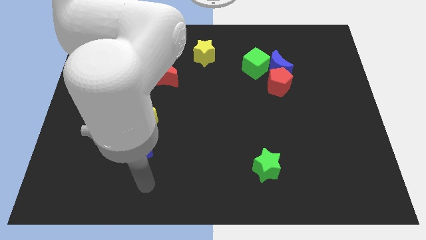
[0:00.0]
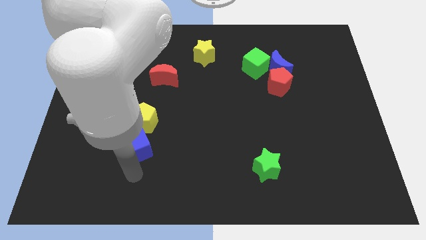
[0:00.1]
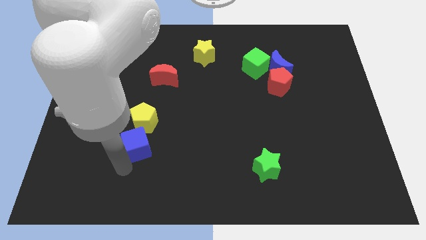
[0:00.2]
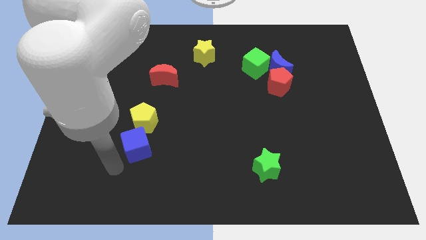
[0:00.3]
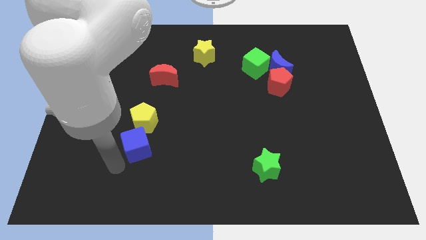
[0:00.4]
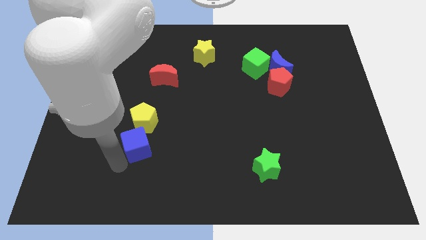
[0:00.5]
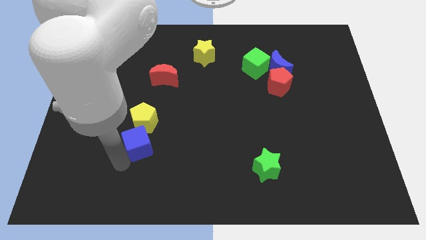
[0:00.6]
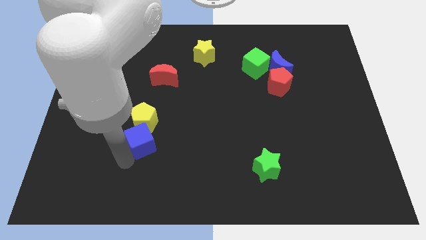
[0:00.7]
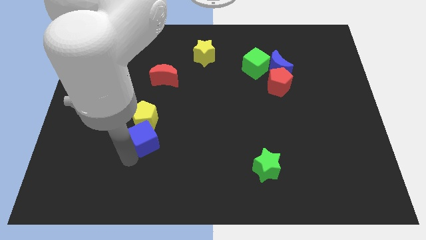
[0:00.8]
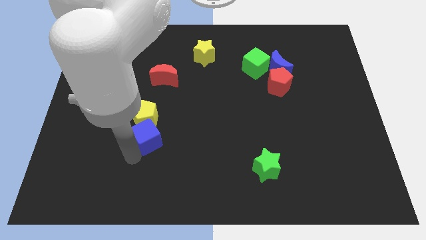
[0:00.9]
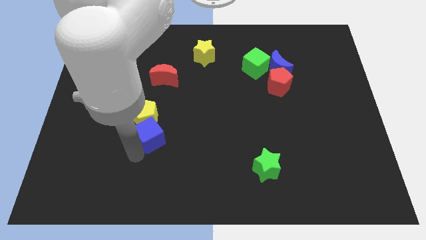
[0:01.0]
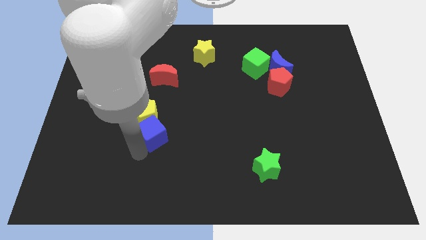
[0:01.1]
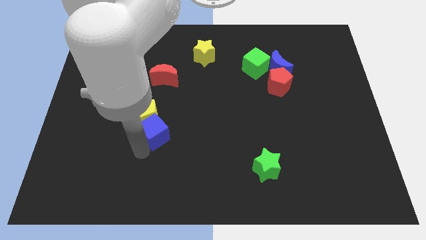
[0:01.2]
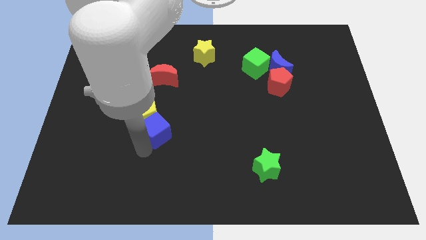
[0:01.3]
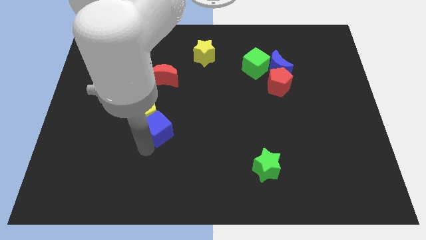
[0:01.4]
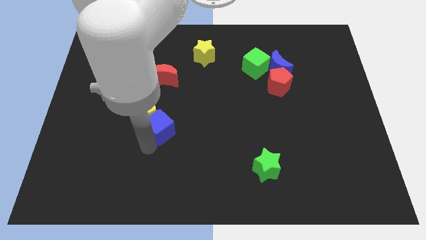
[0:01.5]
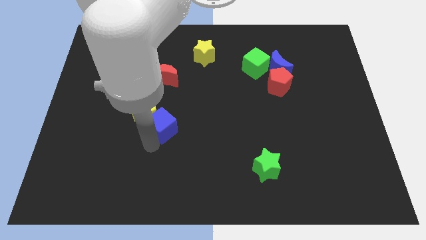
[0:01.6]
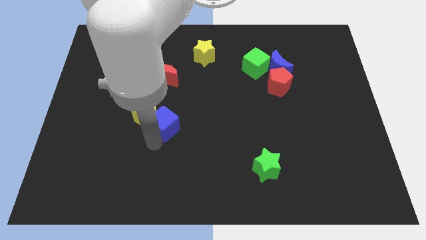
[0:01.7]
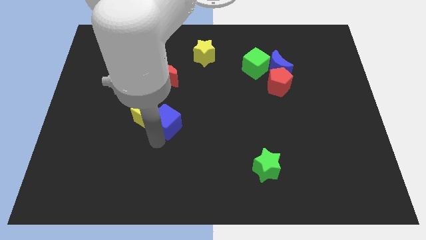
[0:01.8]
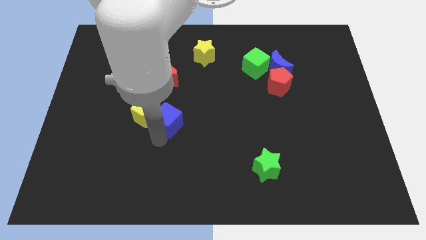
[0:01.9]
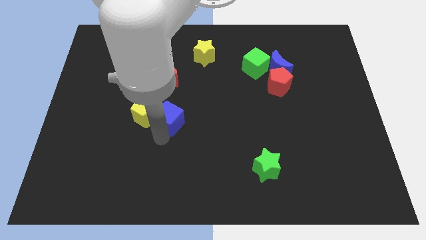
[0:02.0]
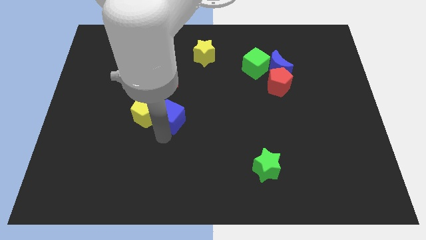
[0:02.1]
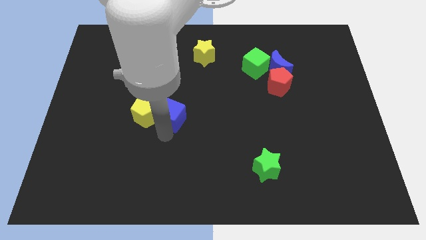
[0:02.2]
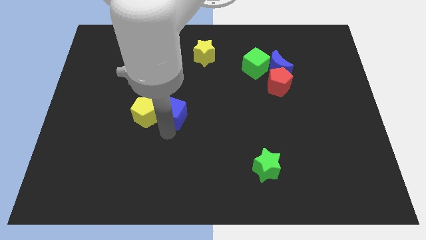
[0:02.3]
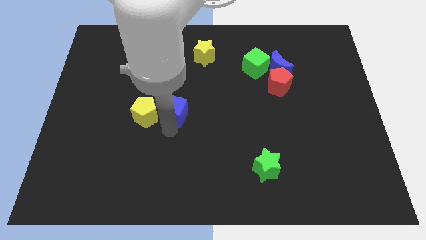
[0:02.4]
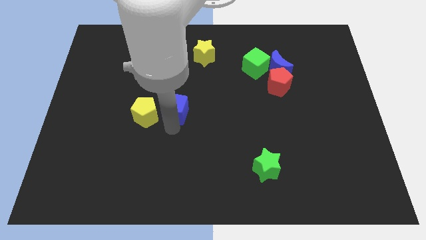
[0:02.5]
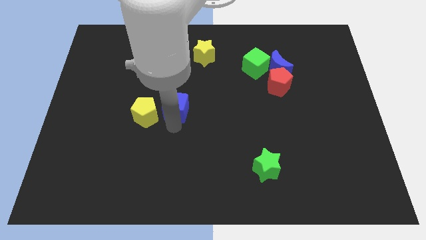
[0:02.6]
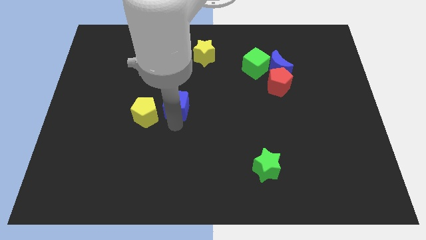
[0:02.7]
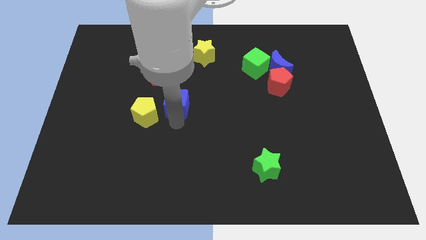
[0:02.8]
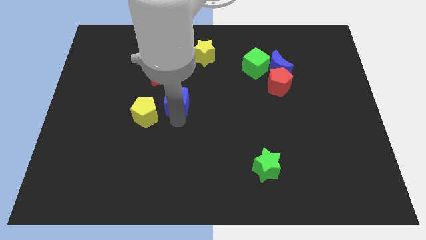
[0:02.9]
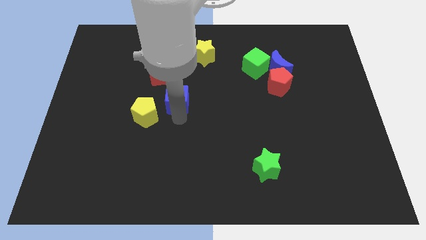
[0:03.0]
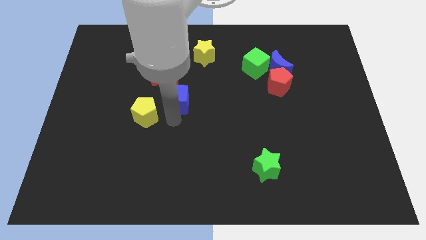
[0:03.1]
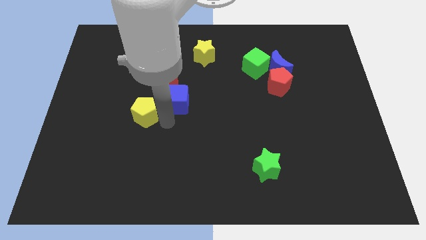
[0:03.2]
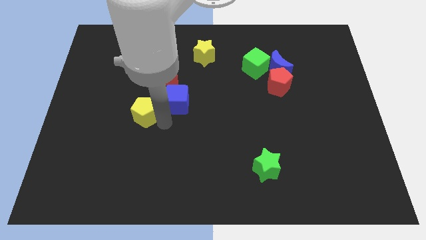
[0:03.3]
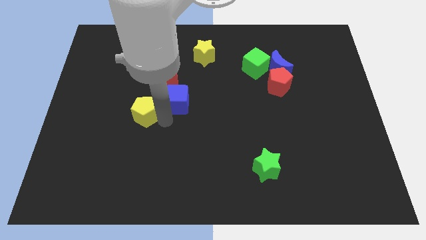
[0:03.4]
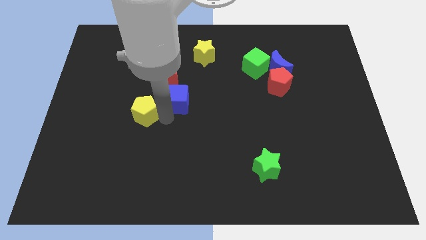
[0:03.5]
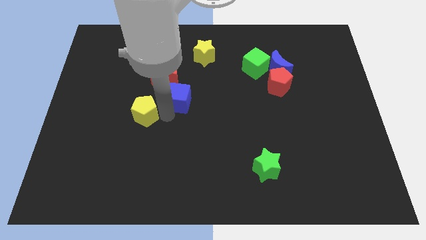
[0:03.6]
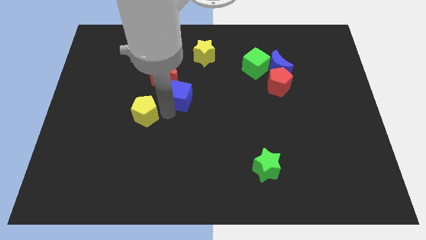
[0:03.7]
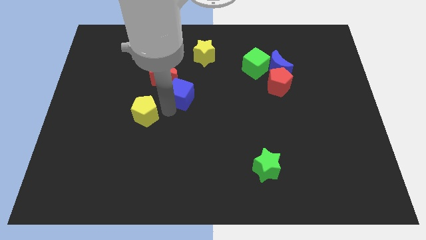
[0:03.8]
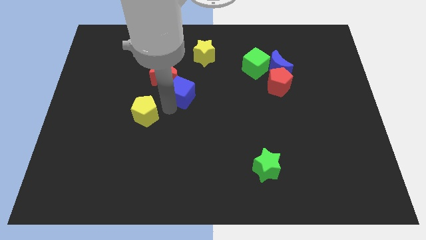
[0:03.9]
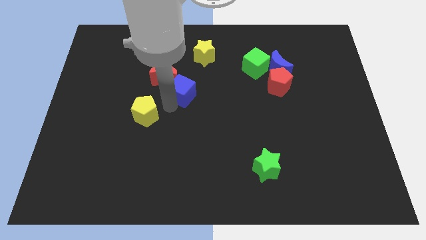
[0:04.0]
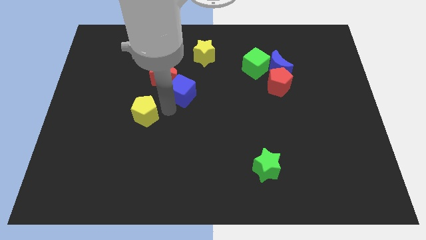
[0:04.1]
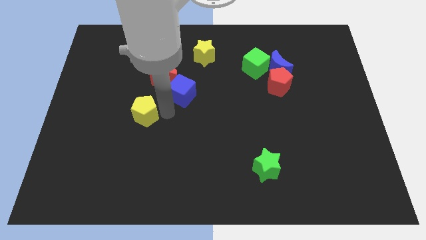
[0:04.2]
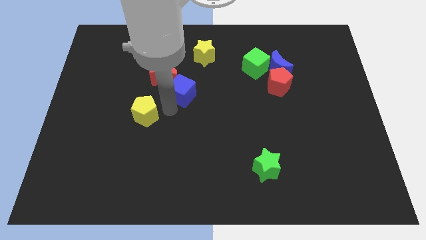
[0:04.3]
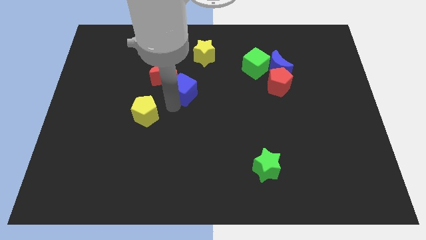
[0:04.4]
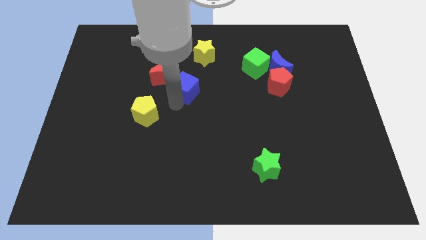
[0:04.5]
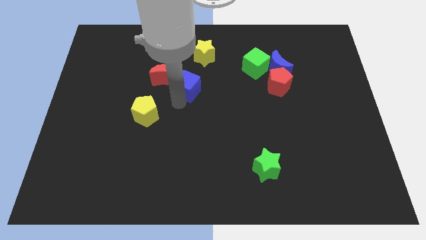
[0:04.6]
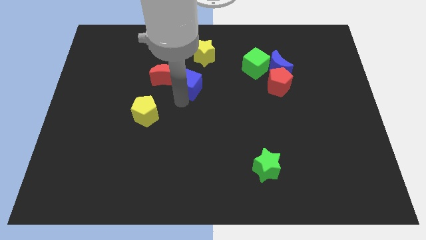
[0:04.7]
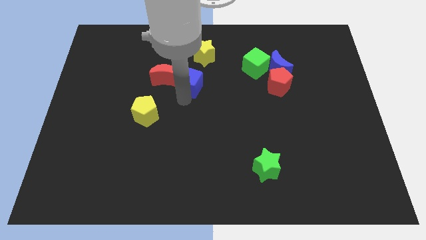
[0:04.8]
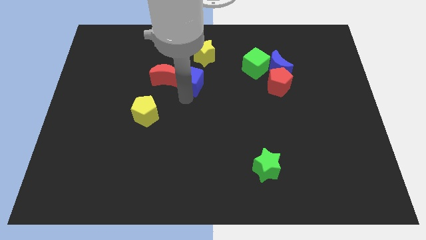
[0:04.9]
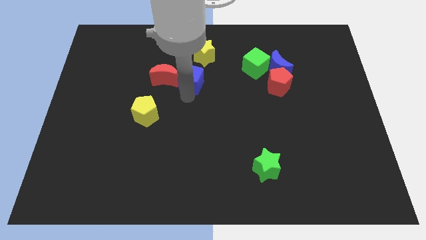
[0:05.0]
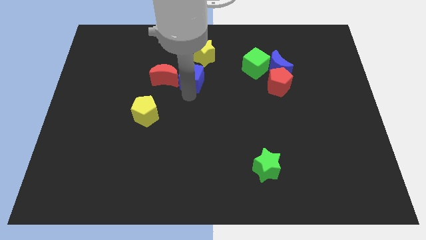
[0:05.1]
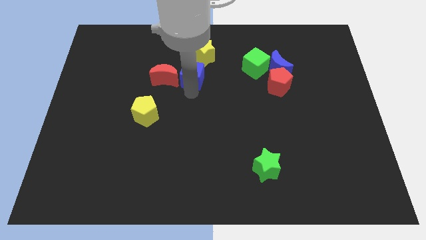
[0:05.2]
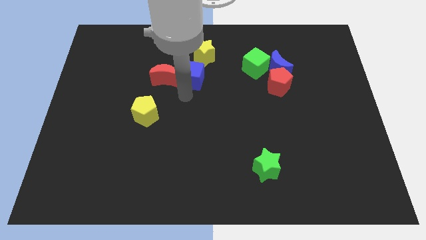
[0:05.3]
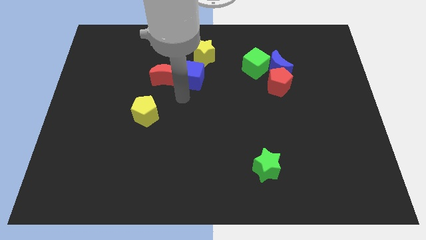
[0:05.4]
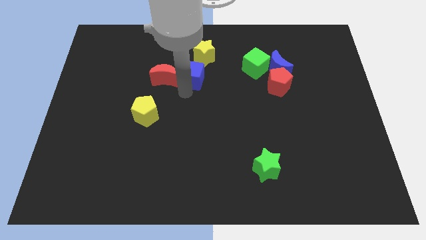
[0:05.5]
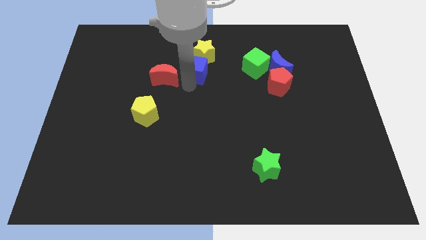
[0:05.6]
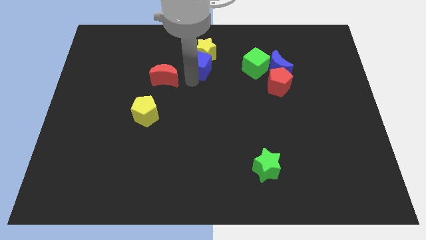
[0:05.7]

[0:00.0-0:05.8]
move the blue cube to the yellow star

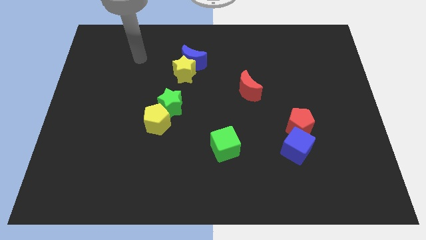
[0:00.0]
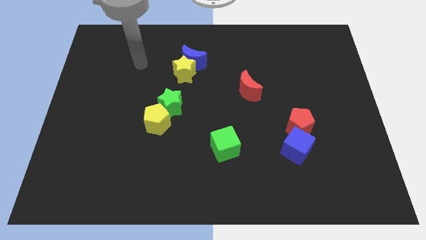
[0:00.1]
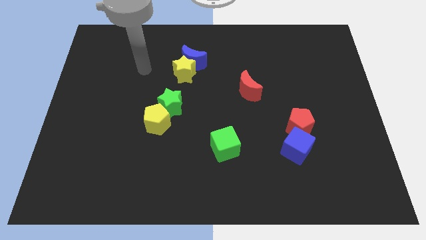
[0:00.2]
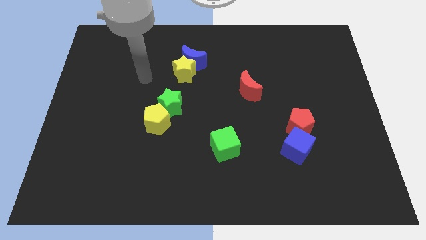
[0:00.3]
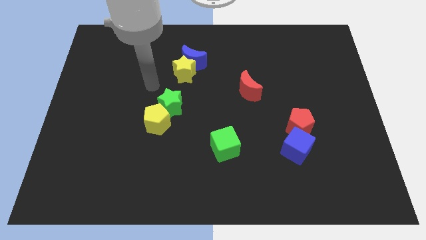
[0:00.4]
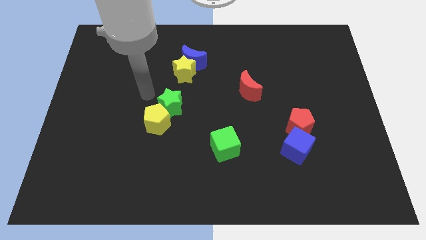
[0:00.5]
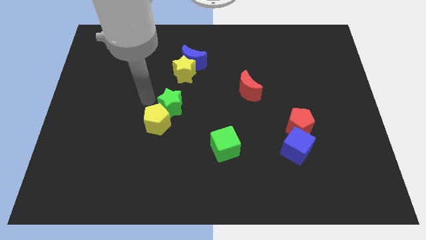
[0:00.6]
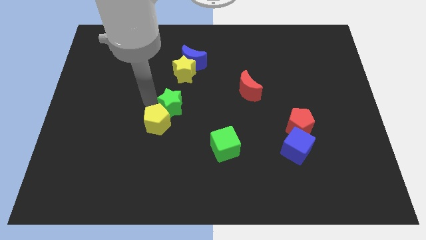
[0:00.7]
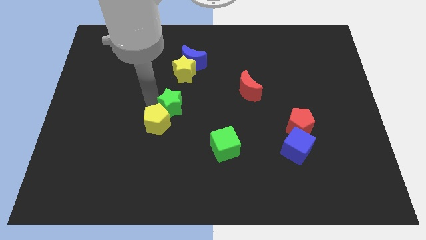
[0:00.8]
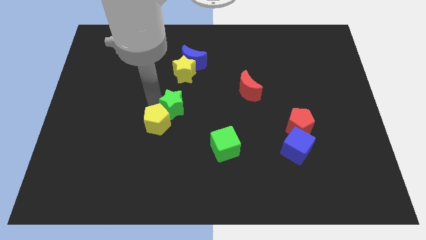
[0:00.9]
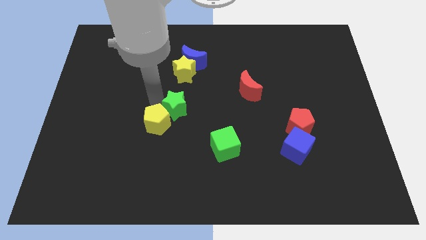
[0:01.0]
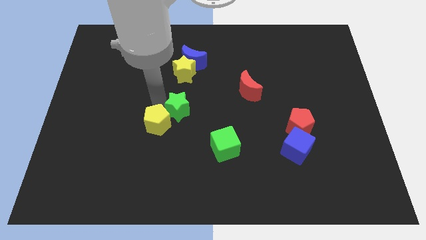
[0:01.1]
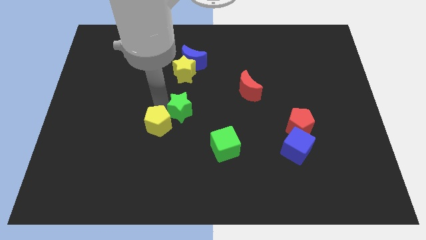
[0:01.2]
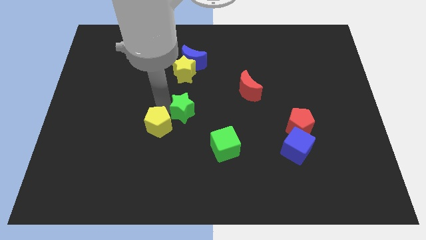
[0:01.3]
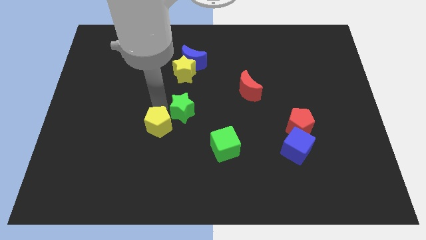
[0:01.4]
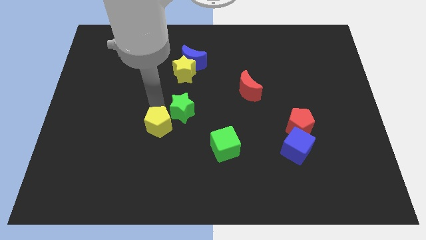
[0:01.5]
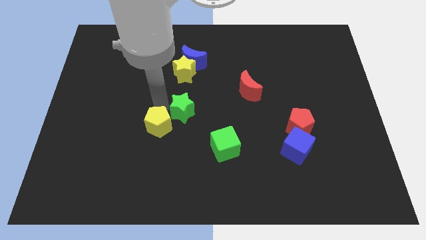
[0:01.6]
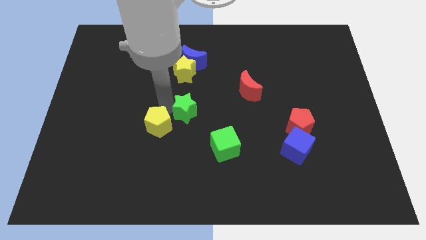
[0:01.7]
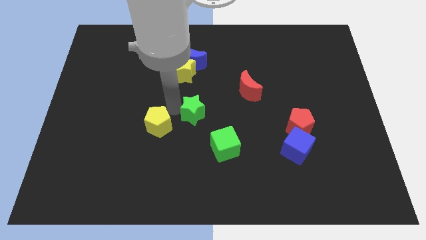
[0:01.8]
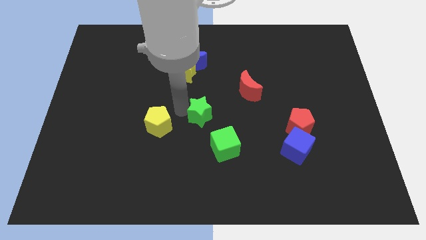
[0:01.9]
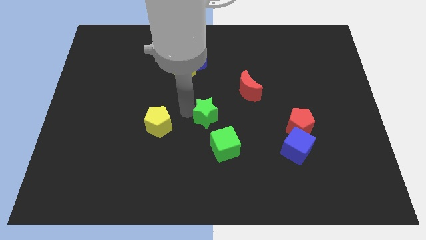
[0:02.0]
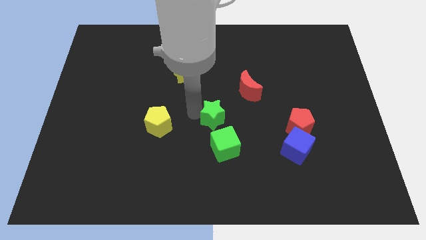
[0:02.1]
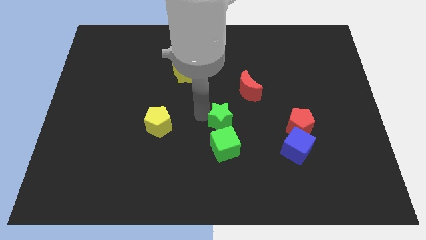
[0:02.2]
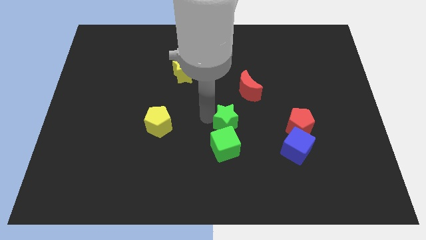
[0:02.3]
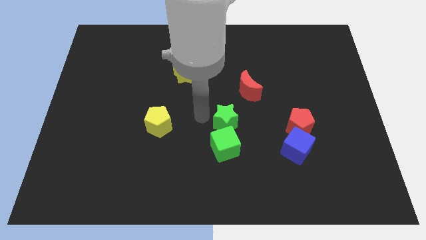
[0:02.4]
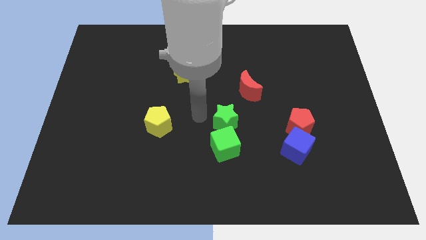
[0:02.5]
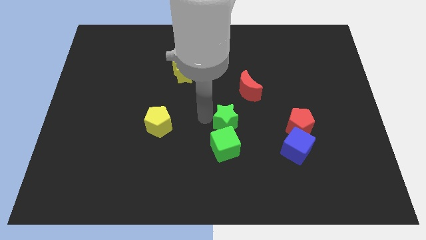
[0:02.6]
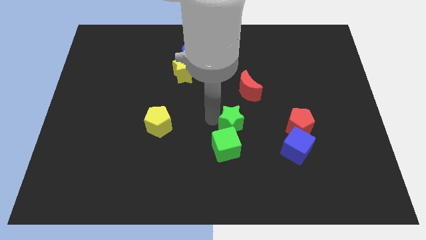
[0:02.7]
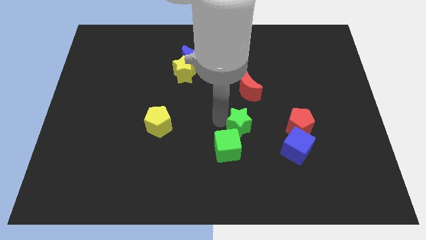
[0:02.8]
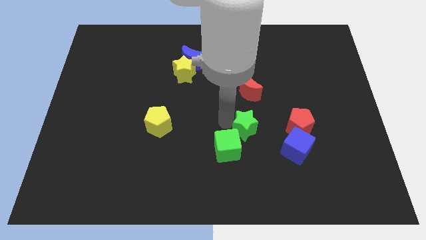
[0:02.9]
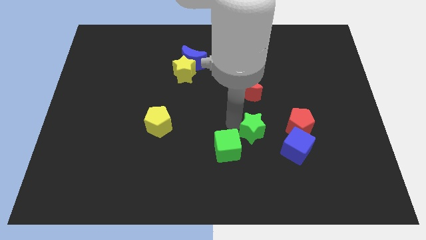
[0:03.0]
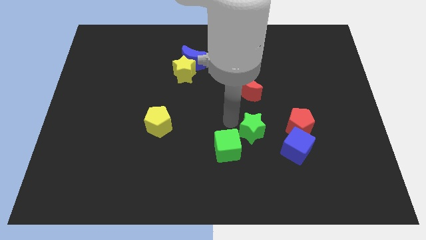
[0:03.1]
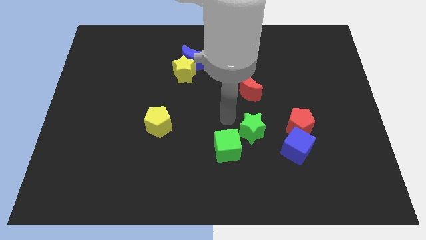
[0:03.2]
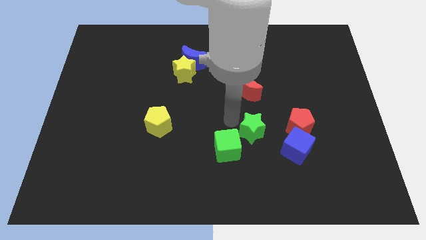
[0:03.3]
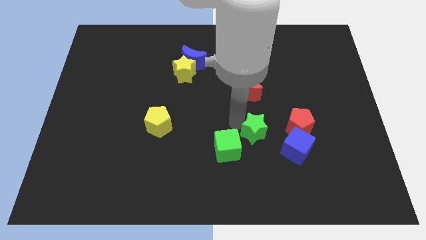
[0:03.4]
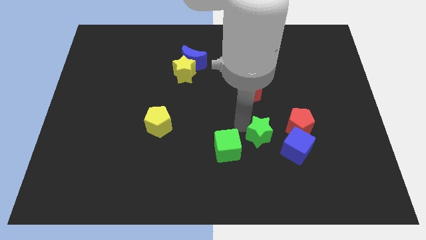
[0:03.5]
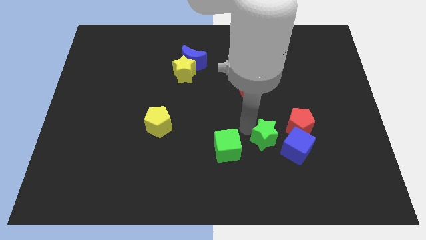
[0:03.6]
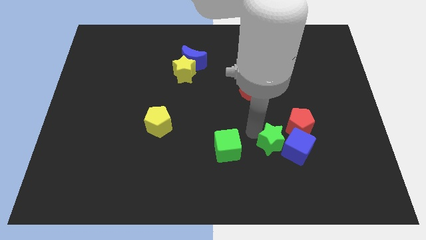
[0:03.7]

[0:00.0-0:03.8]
push the green star close to the blue cube
